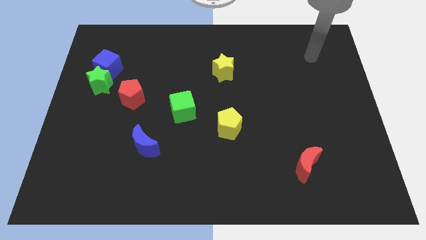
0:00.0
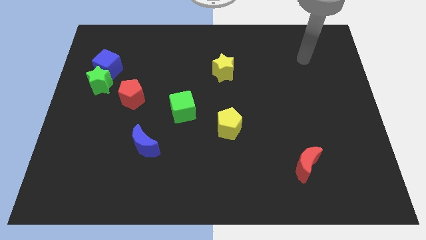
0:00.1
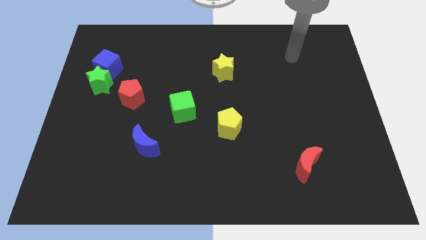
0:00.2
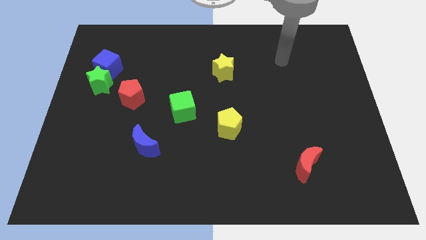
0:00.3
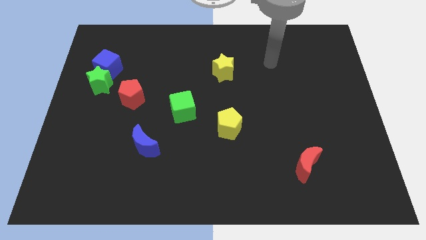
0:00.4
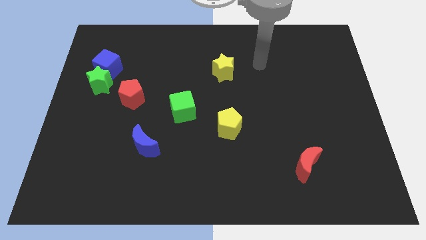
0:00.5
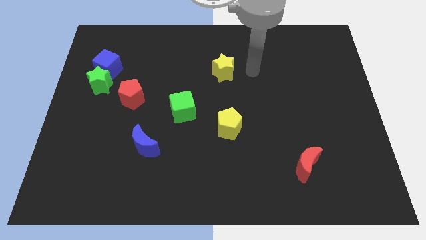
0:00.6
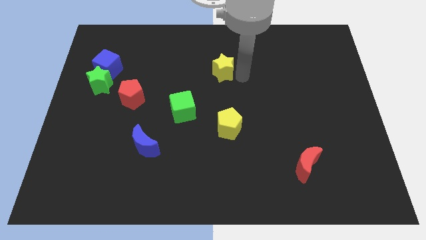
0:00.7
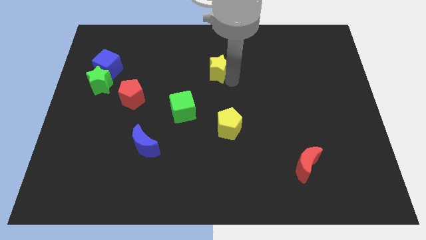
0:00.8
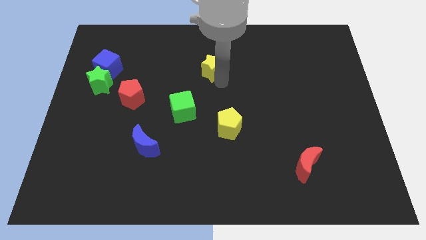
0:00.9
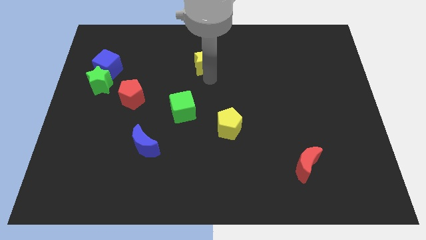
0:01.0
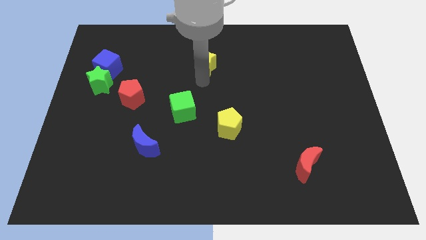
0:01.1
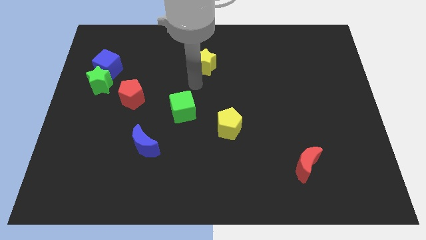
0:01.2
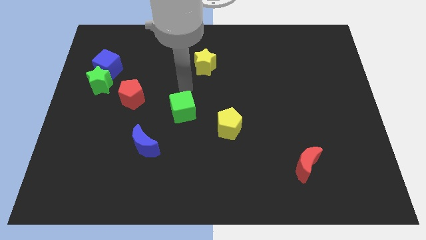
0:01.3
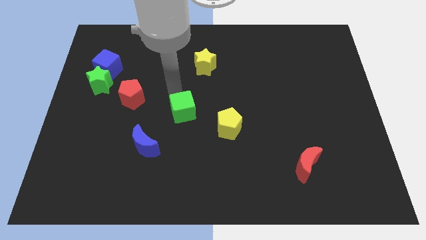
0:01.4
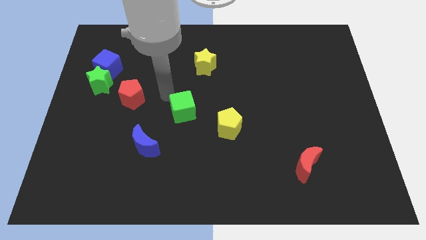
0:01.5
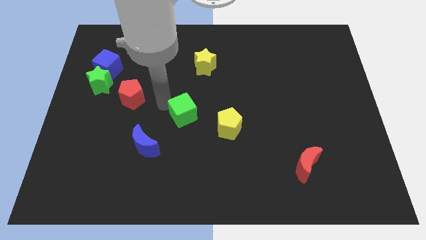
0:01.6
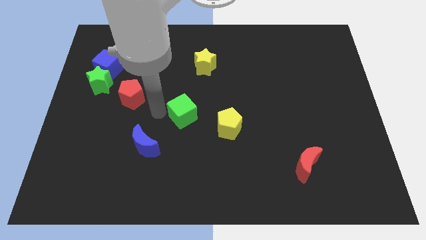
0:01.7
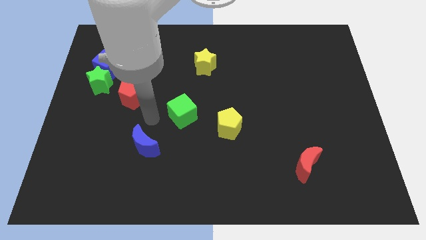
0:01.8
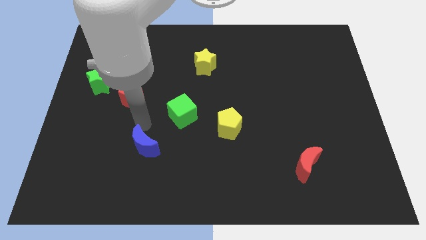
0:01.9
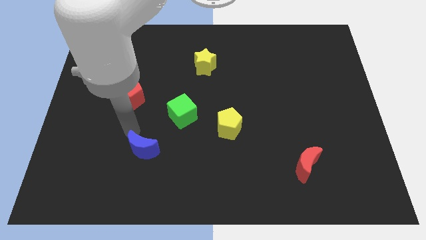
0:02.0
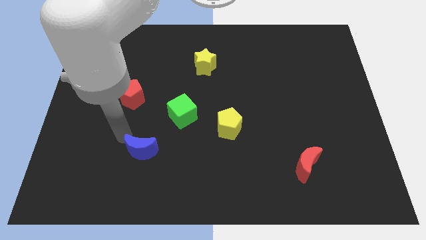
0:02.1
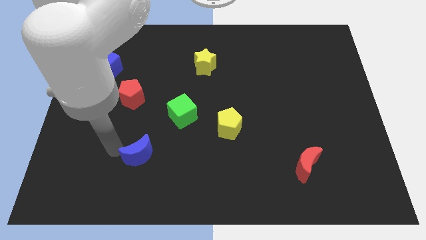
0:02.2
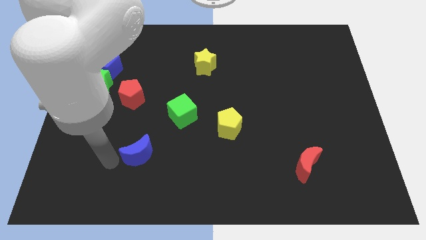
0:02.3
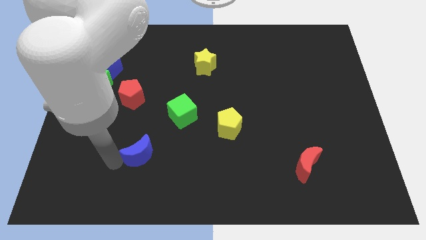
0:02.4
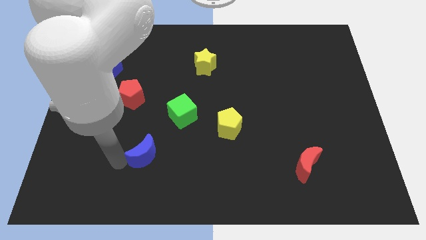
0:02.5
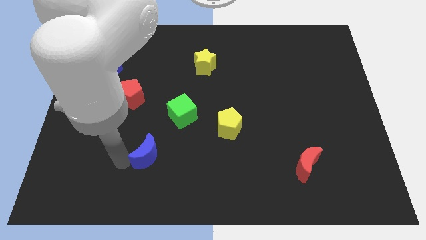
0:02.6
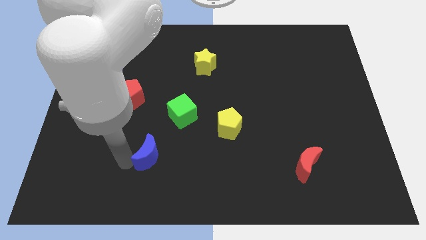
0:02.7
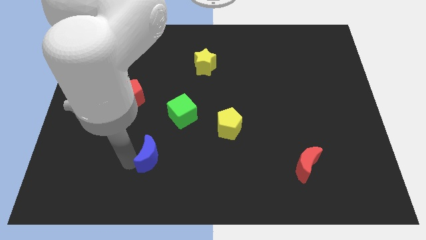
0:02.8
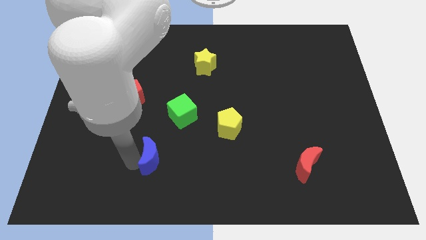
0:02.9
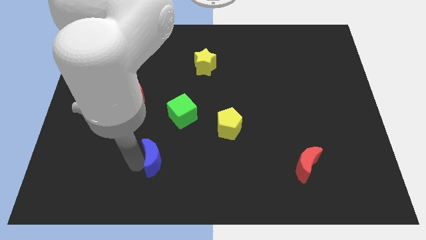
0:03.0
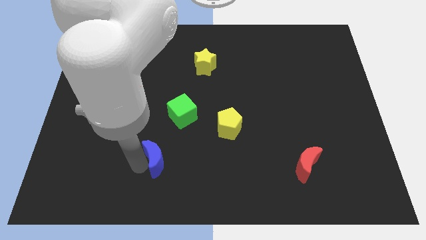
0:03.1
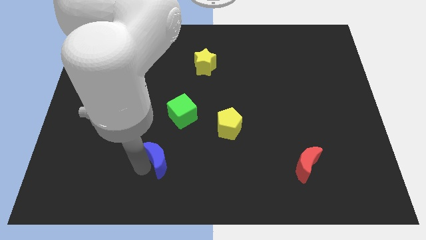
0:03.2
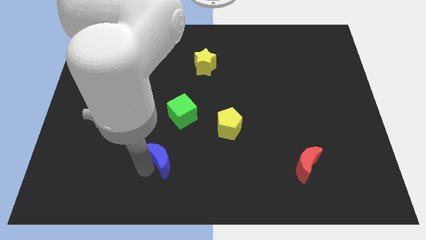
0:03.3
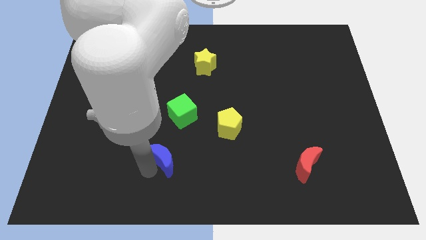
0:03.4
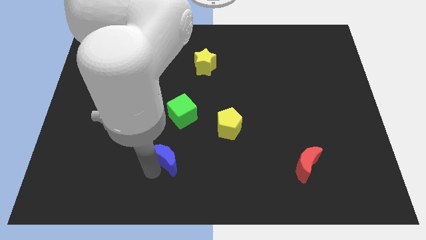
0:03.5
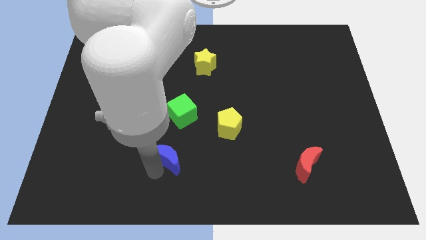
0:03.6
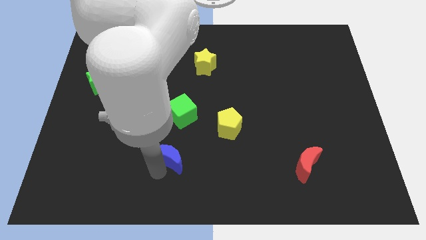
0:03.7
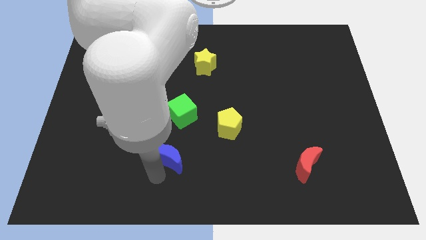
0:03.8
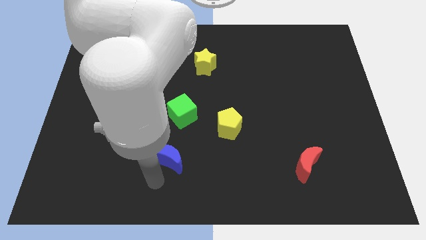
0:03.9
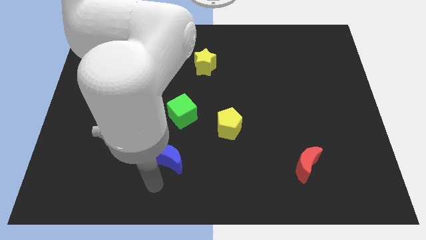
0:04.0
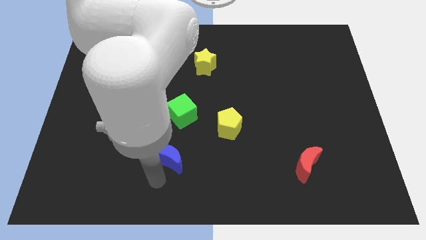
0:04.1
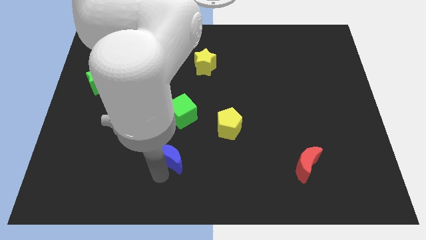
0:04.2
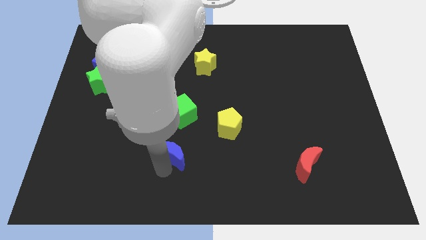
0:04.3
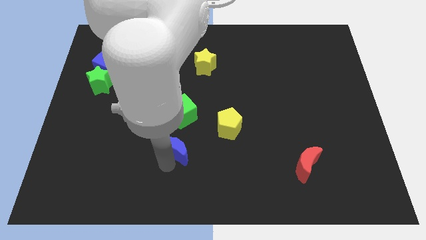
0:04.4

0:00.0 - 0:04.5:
slightly slide the blue moon right

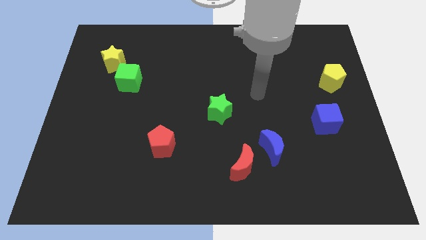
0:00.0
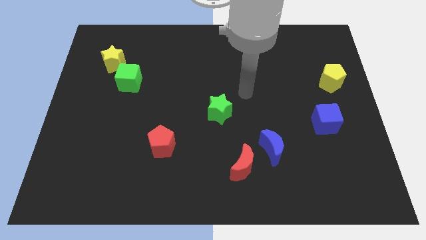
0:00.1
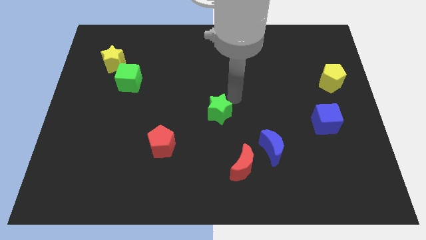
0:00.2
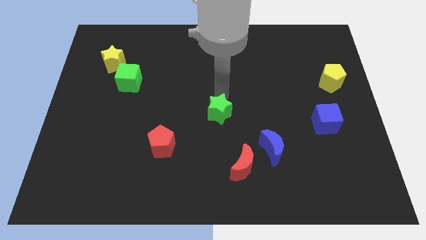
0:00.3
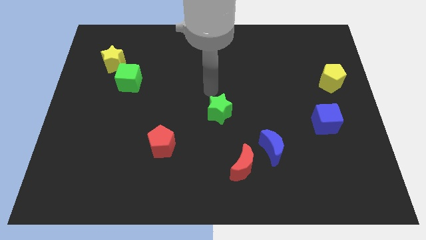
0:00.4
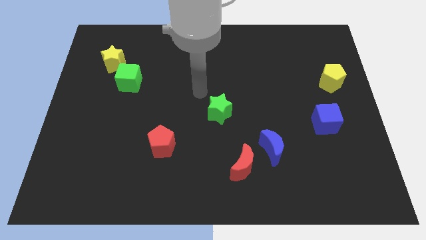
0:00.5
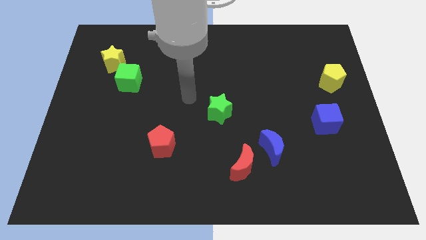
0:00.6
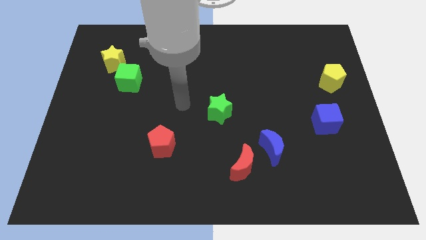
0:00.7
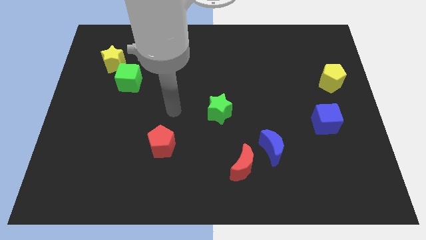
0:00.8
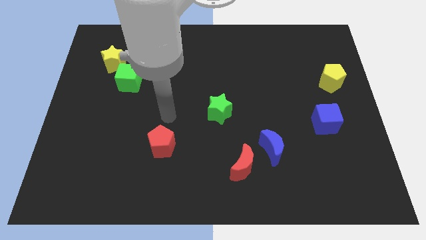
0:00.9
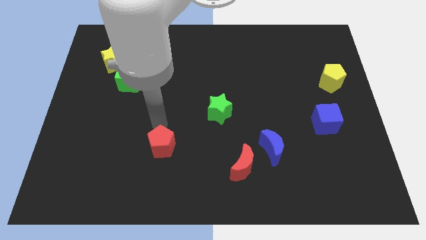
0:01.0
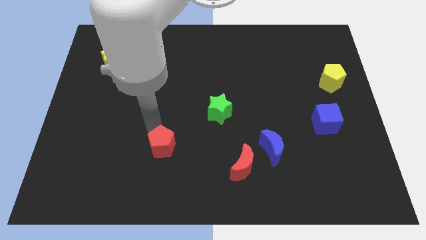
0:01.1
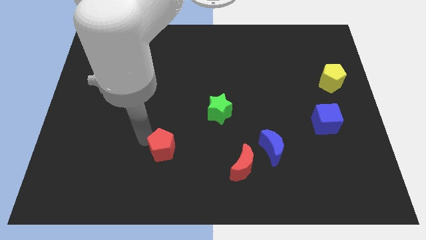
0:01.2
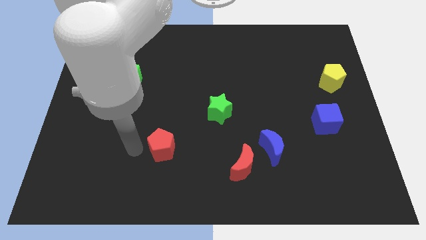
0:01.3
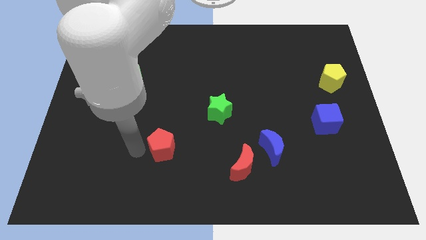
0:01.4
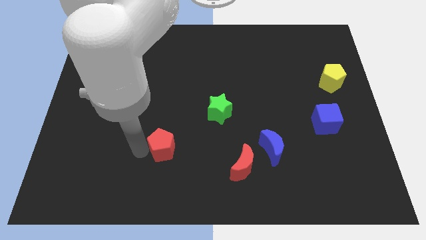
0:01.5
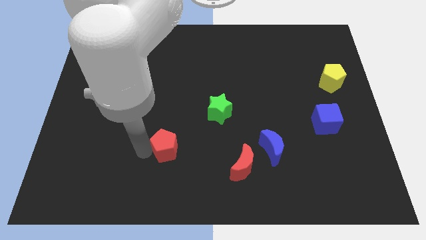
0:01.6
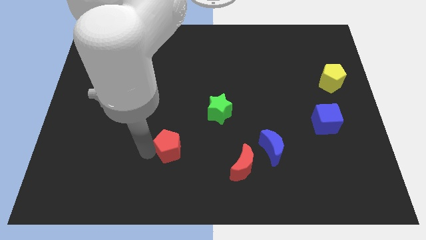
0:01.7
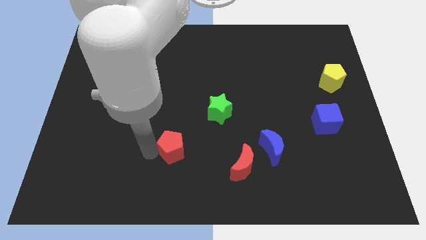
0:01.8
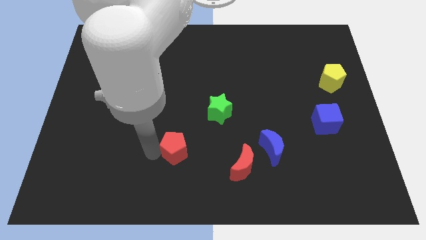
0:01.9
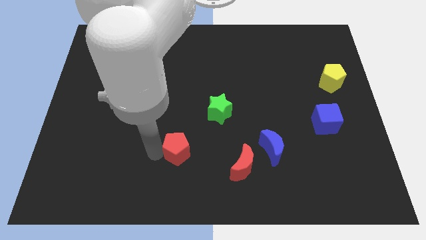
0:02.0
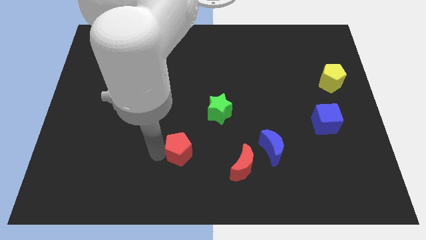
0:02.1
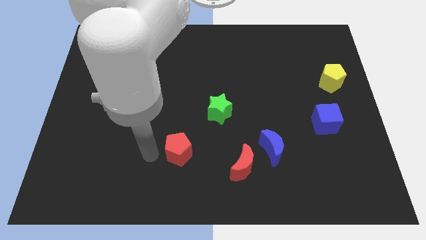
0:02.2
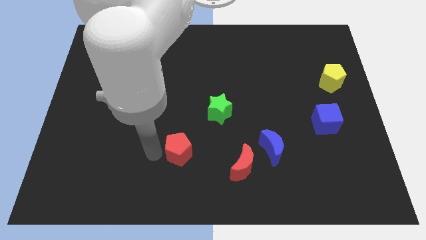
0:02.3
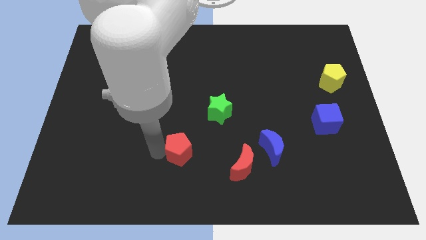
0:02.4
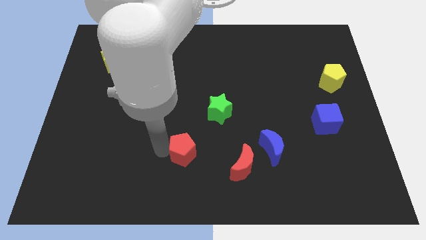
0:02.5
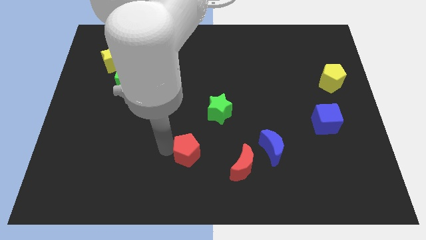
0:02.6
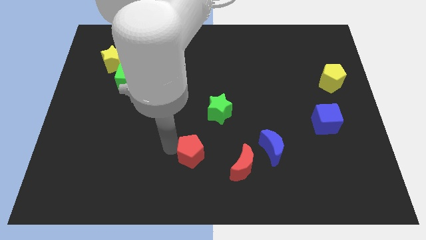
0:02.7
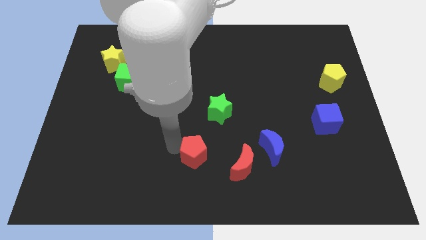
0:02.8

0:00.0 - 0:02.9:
move the red pentagon right slightly

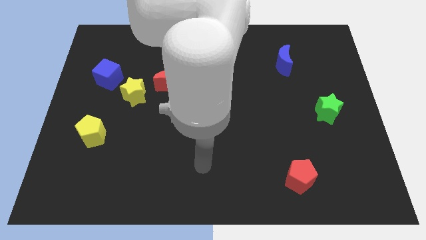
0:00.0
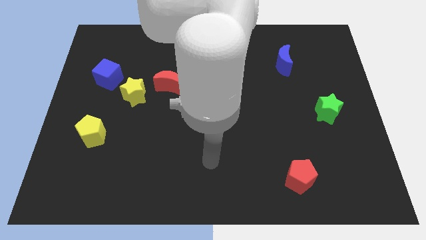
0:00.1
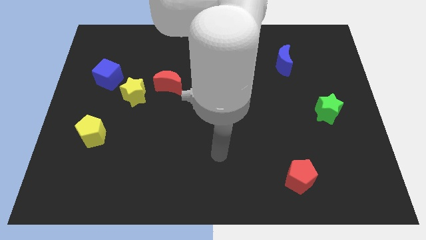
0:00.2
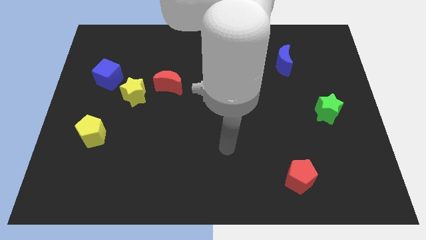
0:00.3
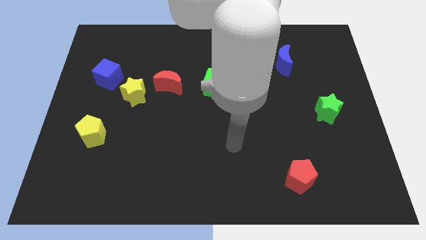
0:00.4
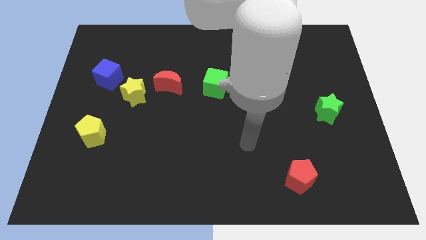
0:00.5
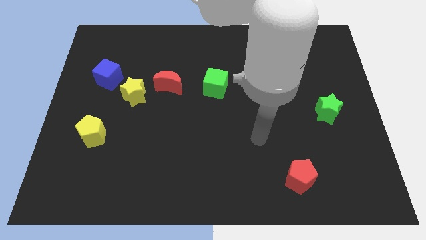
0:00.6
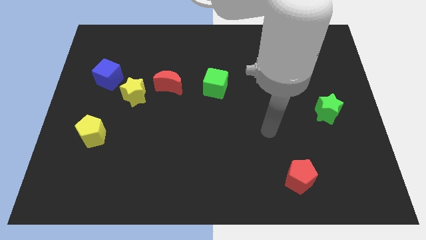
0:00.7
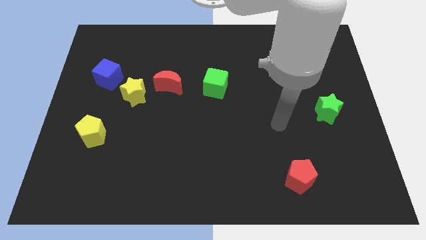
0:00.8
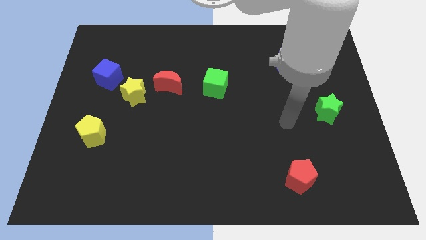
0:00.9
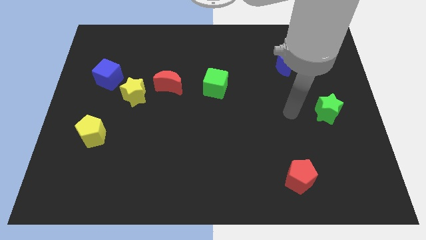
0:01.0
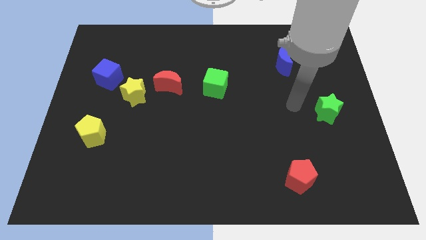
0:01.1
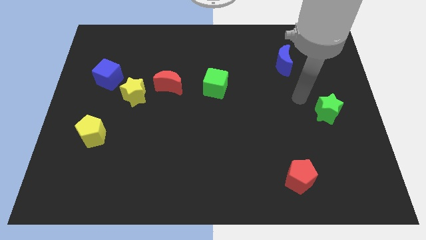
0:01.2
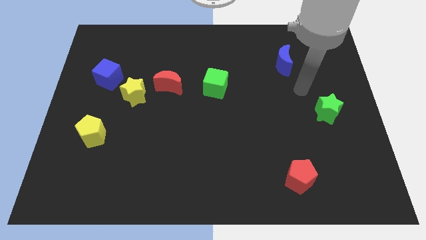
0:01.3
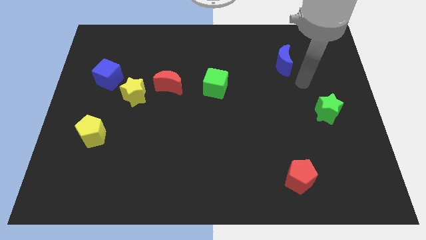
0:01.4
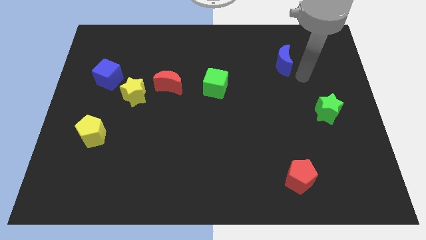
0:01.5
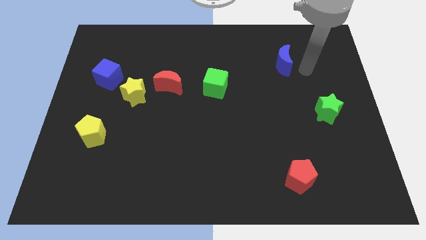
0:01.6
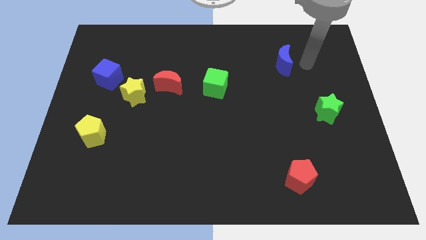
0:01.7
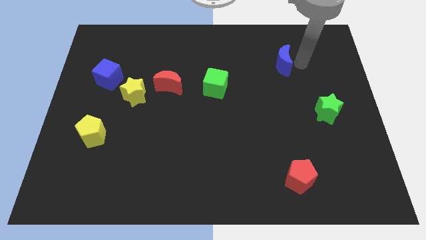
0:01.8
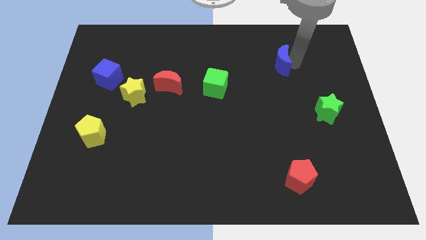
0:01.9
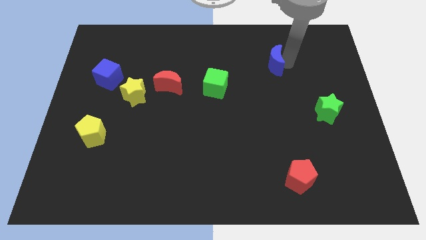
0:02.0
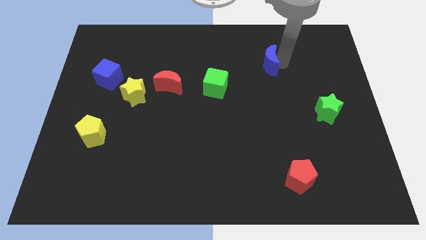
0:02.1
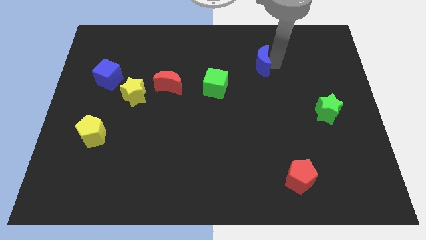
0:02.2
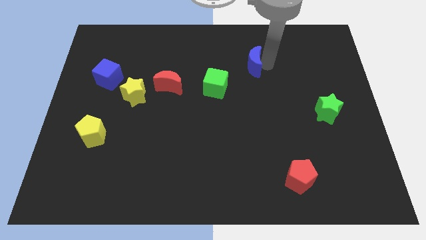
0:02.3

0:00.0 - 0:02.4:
slightly slide the blue moon to the left
